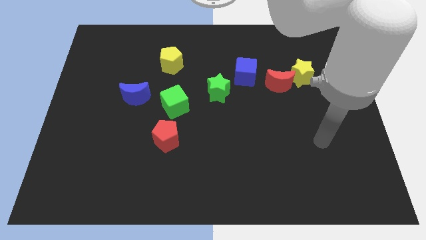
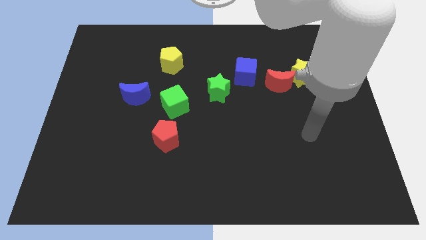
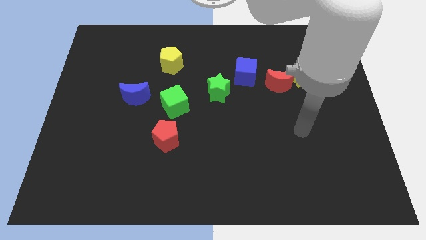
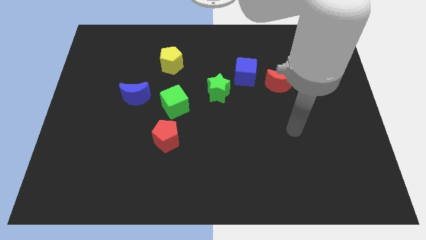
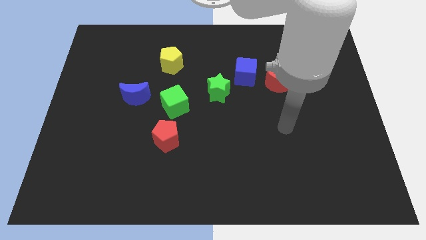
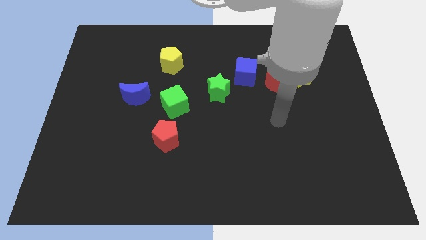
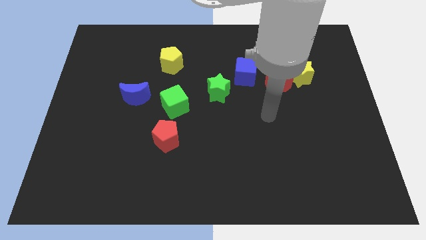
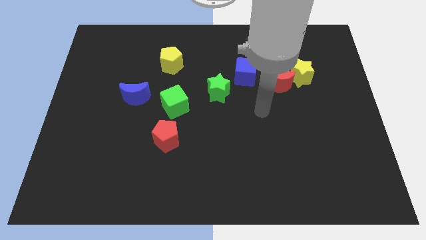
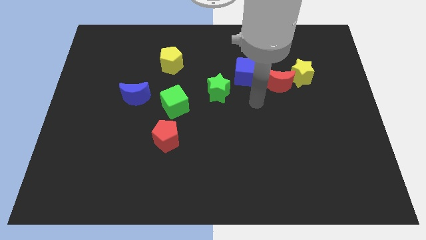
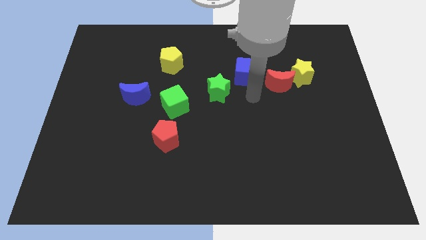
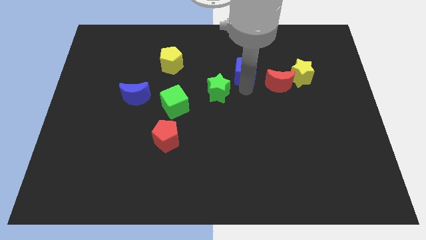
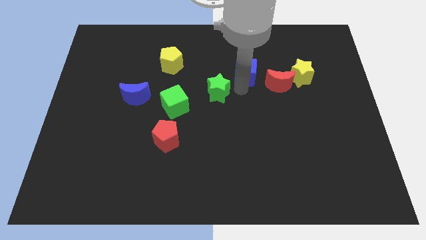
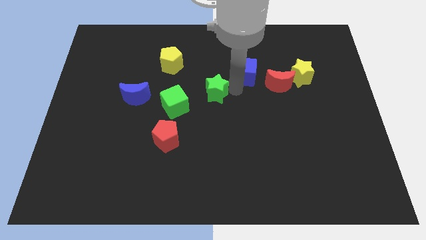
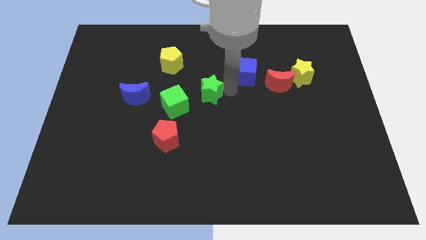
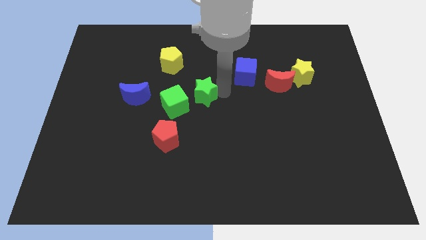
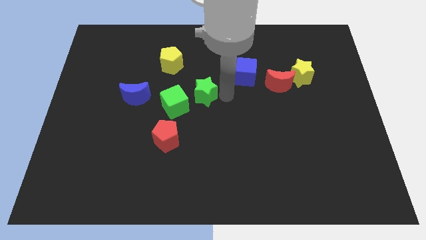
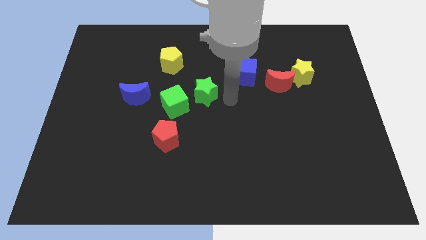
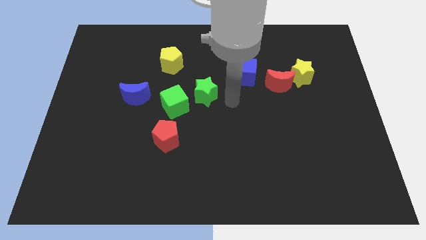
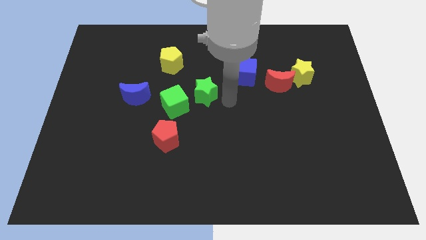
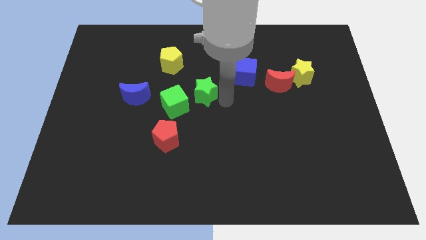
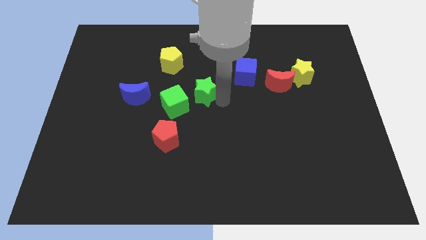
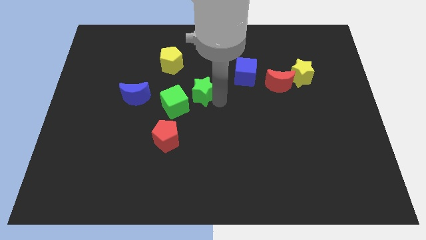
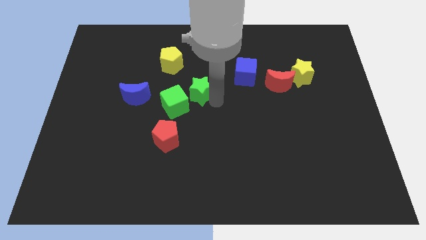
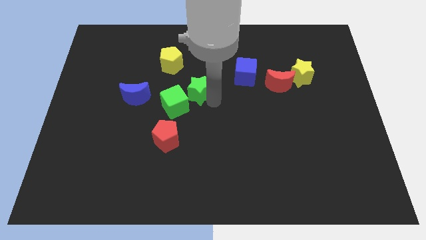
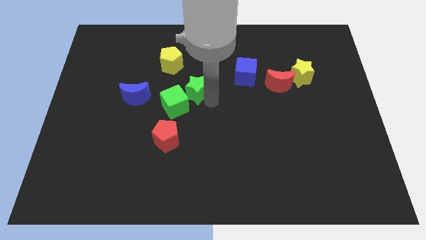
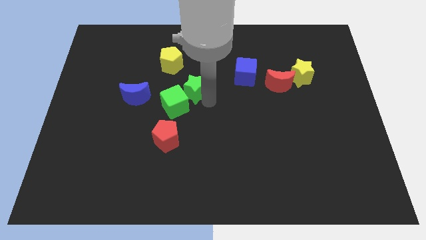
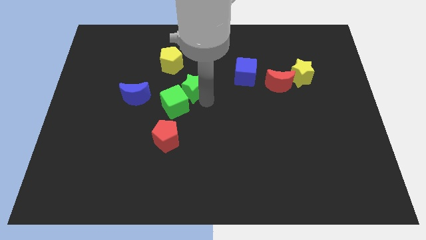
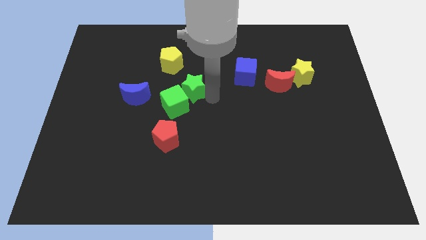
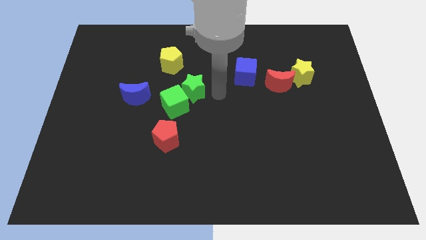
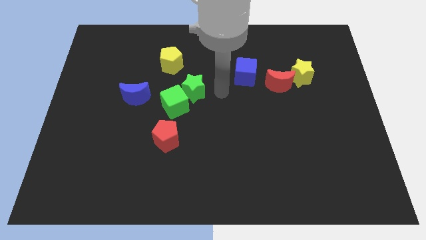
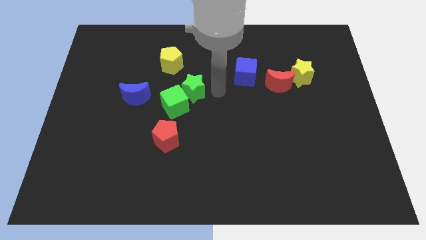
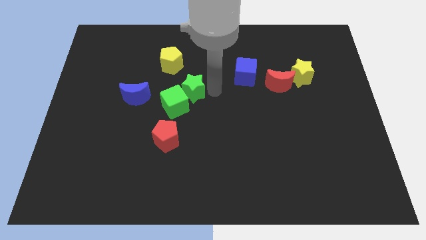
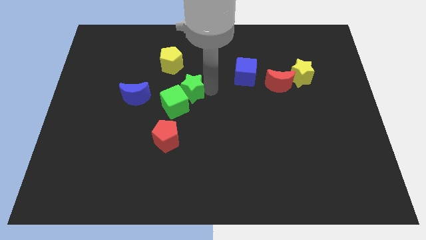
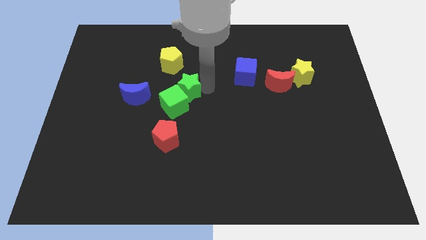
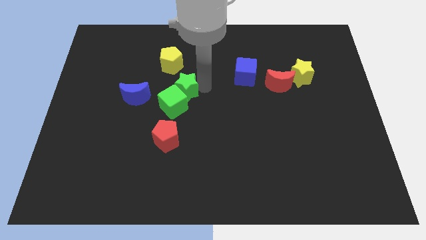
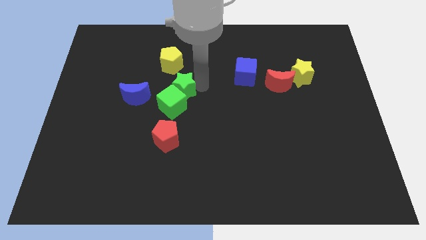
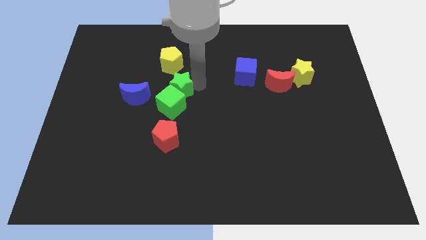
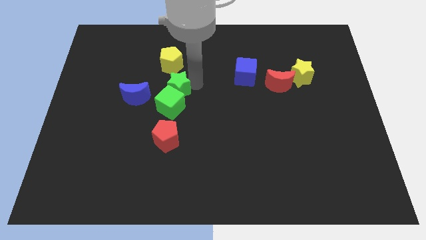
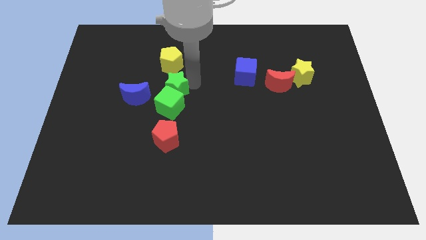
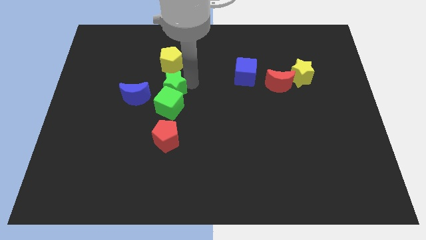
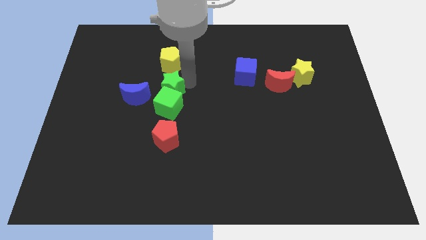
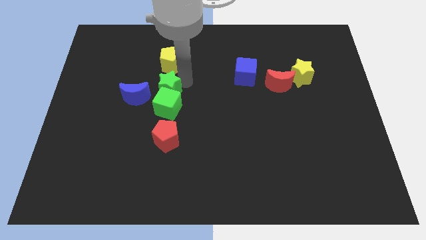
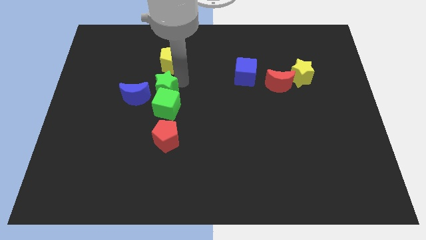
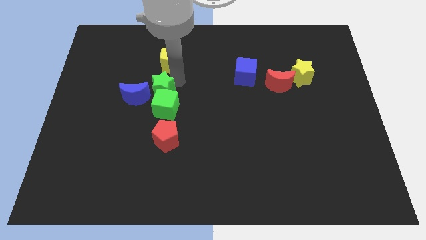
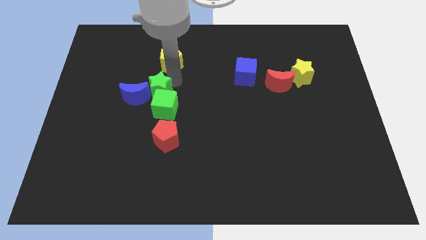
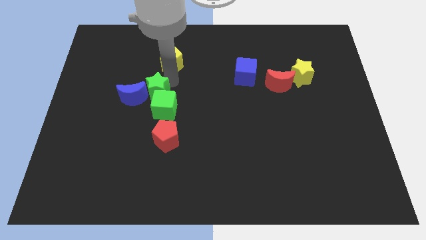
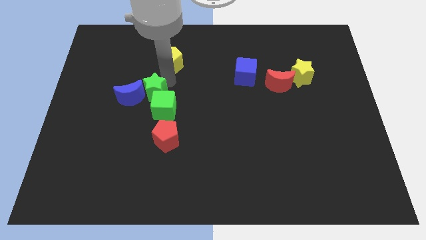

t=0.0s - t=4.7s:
push the green star next to the blue moon

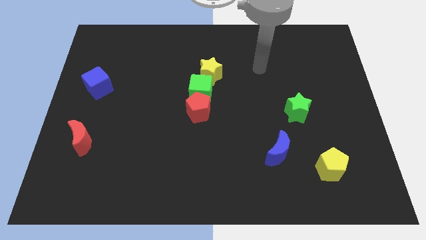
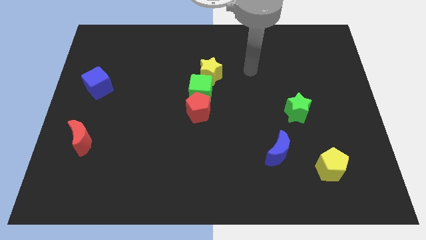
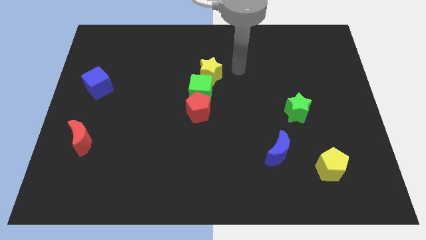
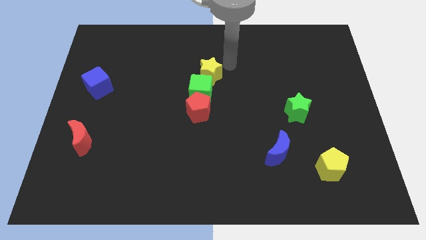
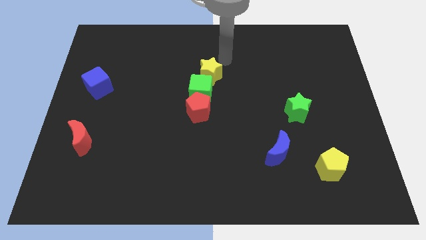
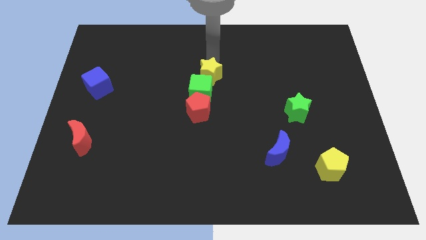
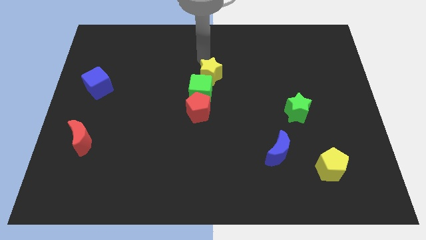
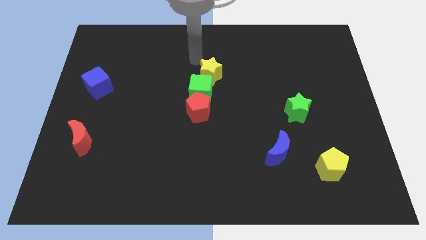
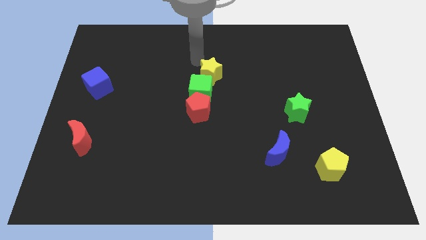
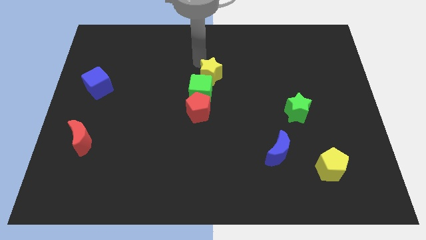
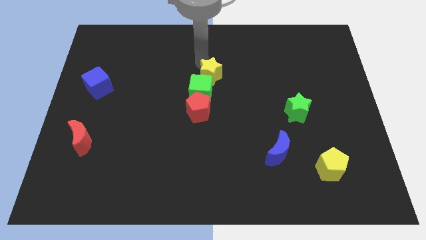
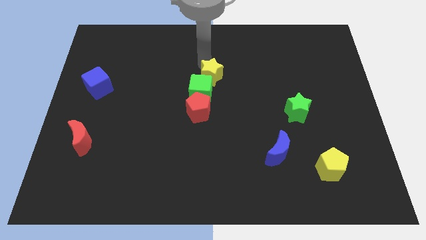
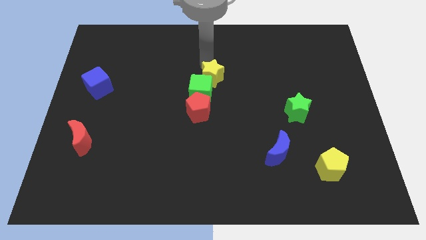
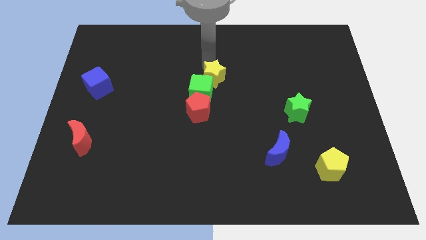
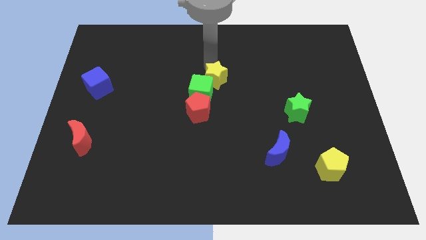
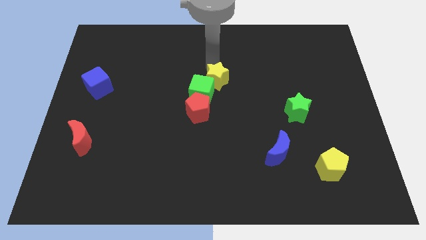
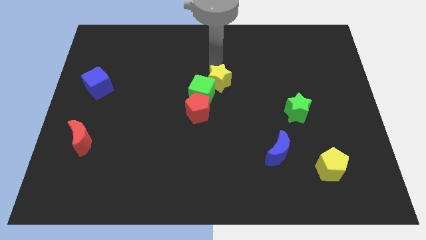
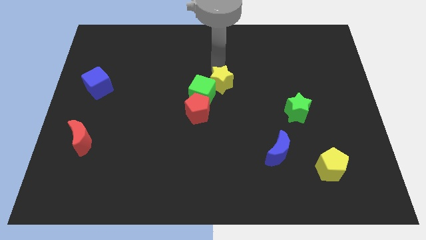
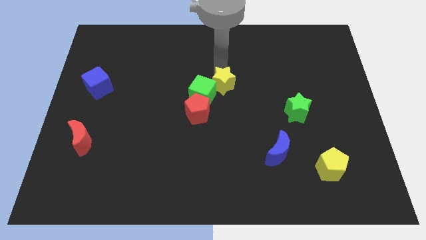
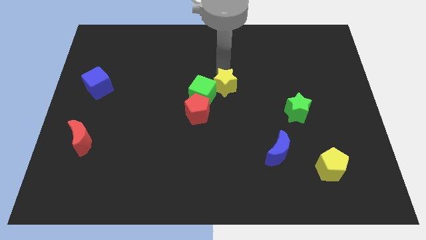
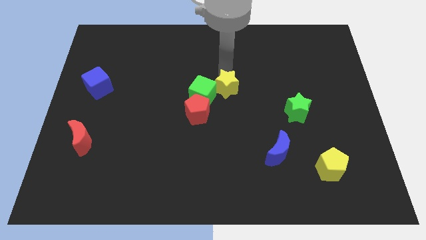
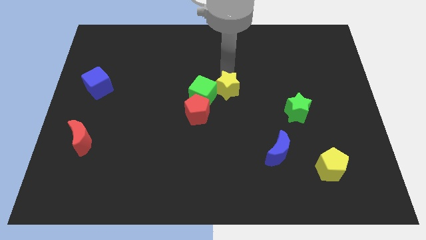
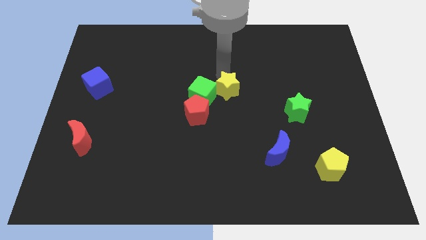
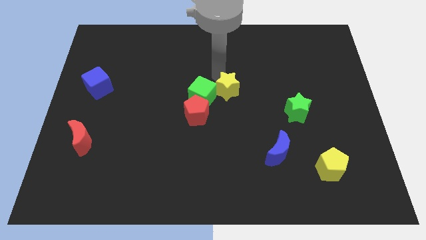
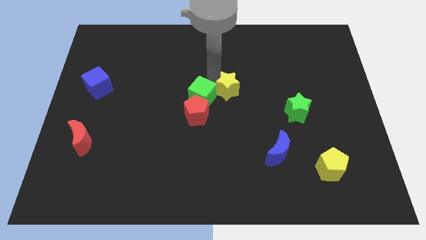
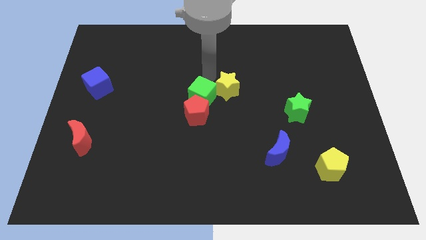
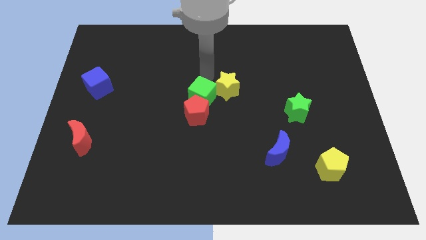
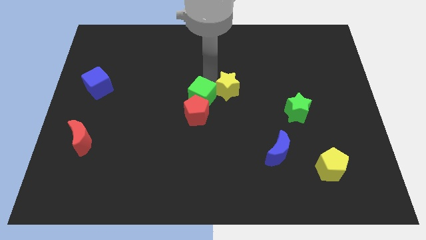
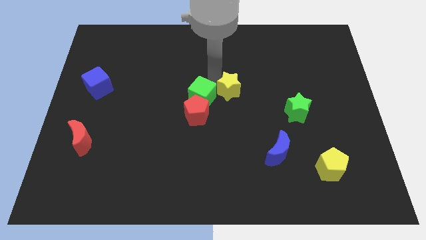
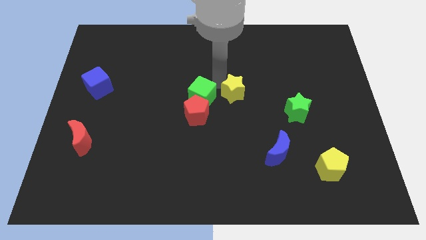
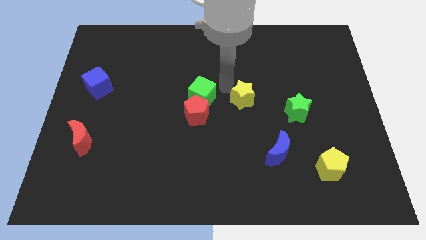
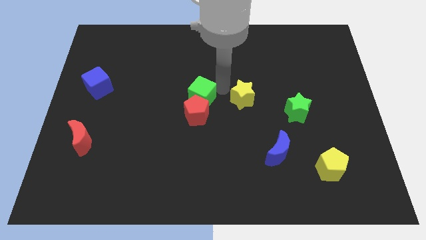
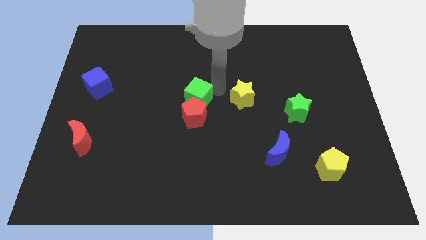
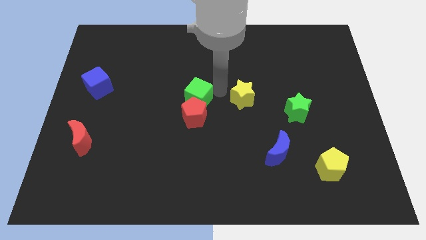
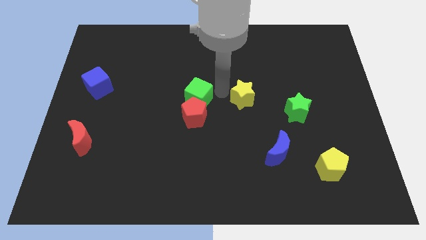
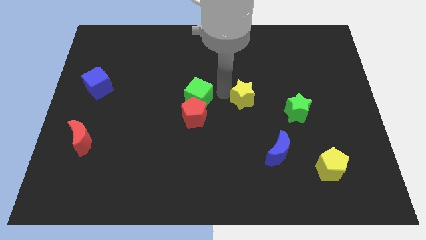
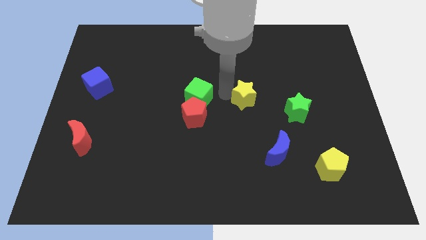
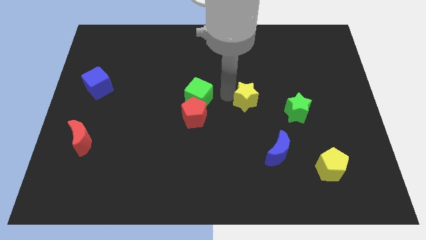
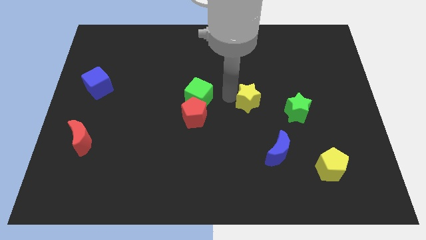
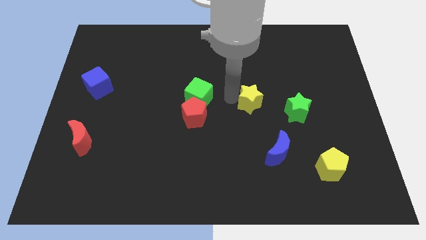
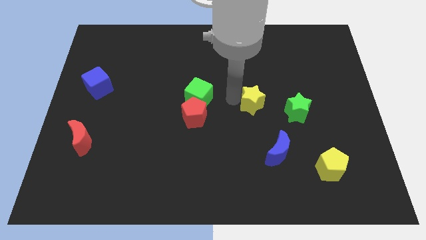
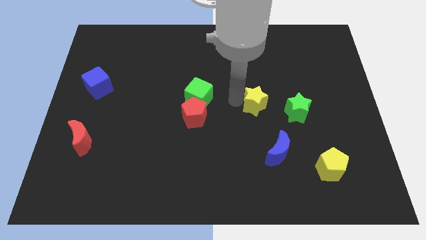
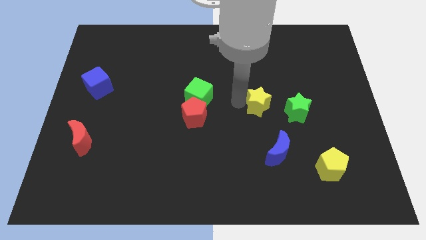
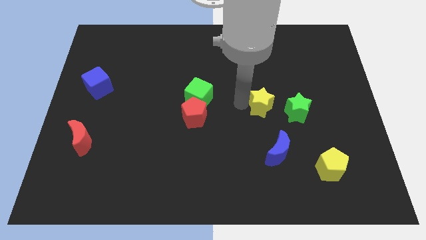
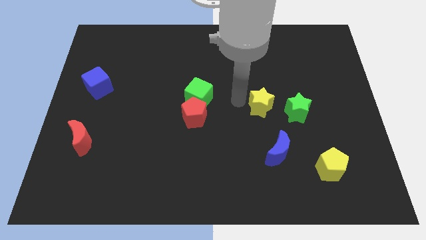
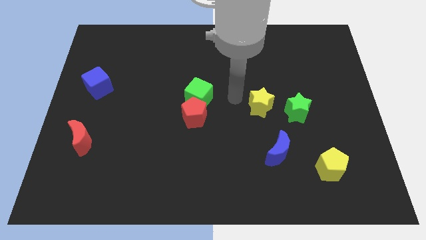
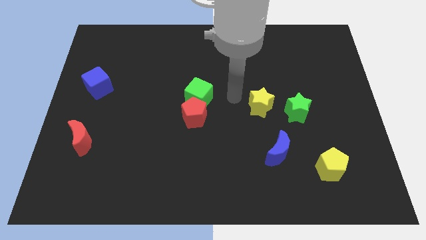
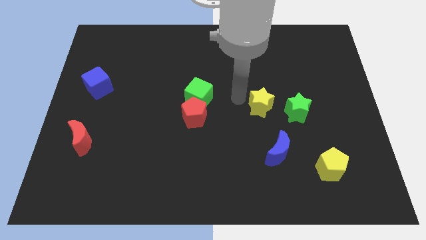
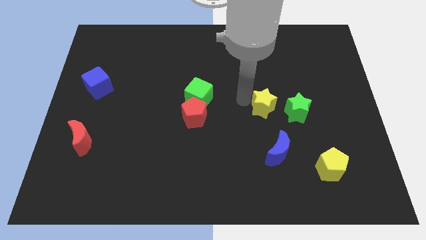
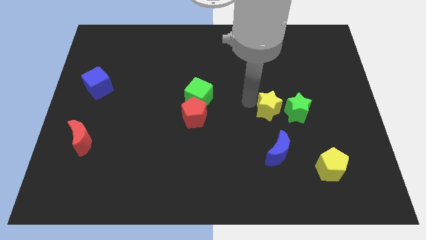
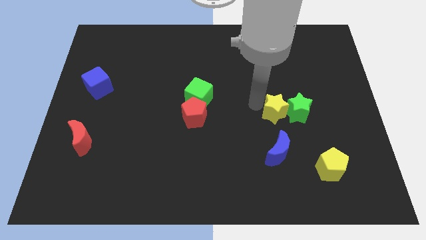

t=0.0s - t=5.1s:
move the yellow star towards the green star
